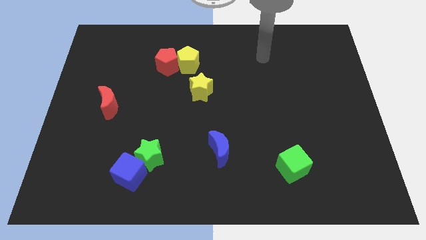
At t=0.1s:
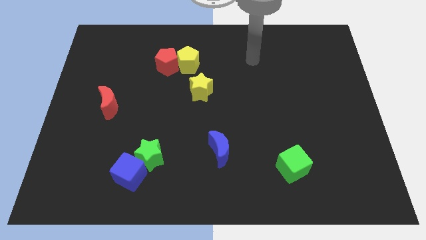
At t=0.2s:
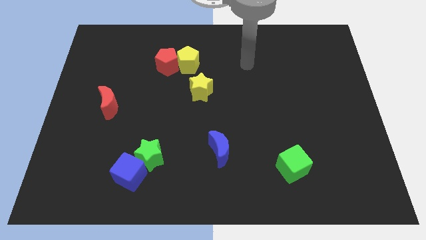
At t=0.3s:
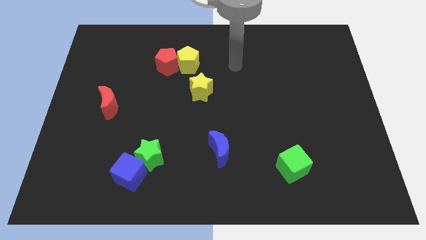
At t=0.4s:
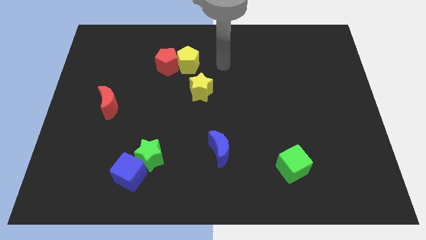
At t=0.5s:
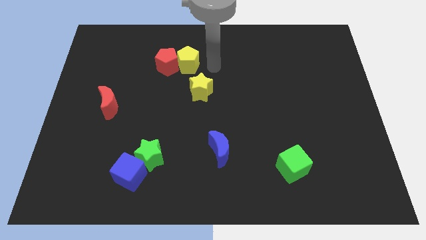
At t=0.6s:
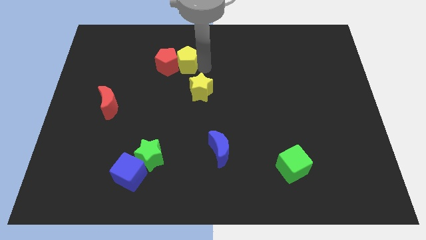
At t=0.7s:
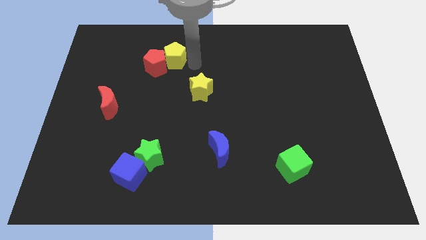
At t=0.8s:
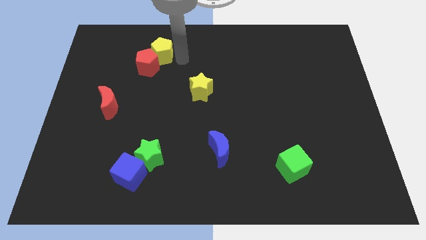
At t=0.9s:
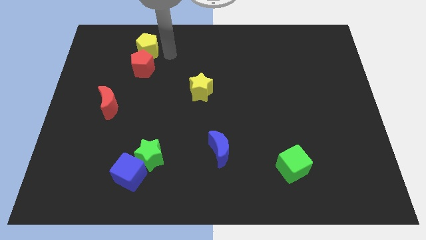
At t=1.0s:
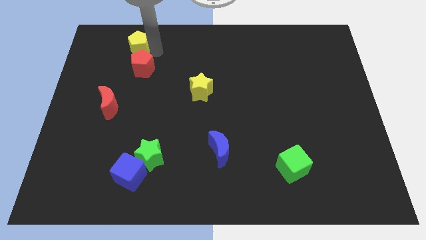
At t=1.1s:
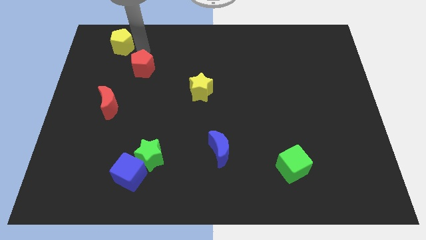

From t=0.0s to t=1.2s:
separate the red pentagon from the yellow pentagon

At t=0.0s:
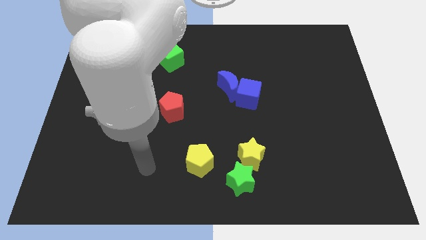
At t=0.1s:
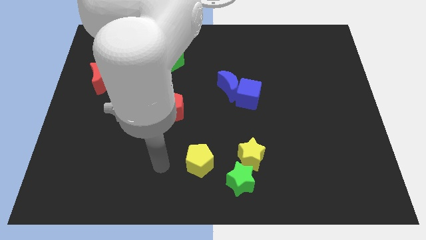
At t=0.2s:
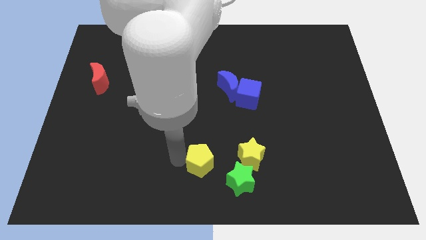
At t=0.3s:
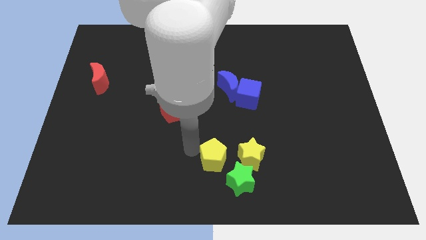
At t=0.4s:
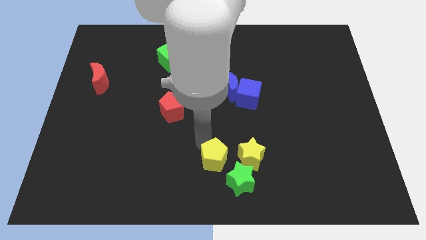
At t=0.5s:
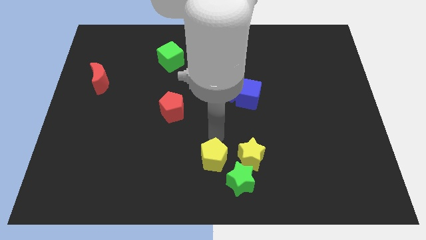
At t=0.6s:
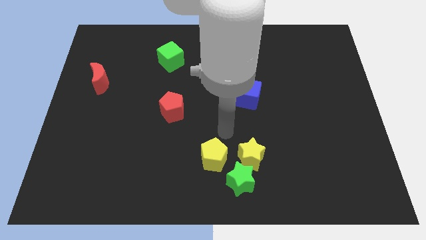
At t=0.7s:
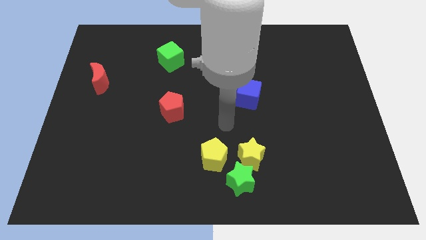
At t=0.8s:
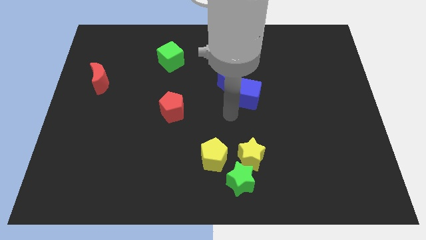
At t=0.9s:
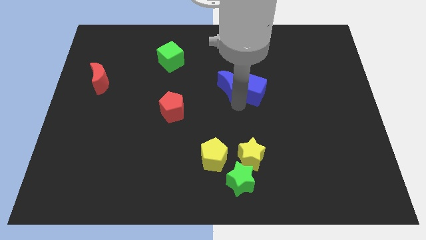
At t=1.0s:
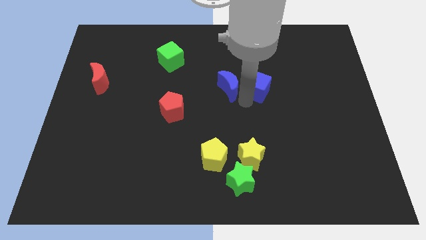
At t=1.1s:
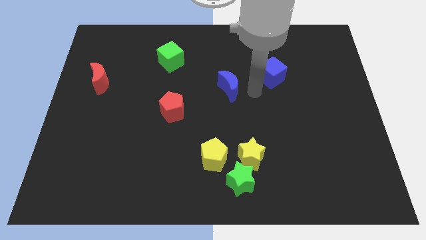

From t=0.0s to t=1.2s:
move the blue moon away from the blue cube

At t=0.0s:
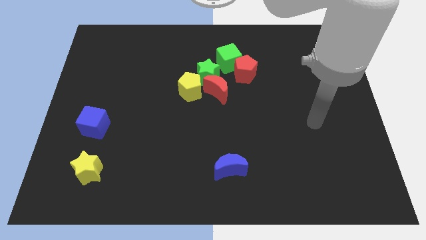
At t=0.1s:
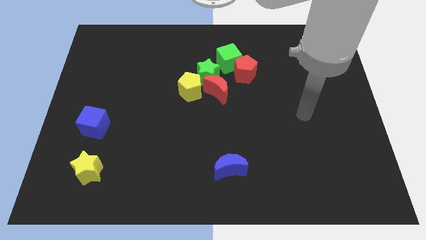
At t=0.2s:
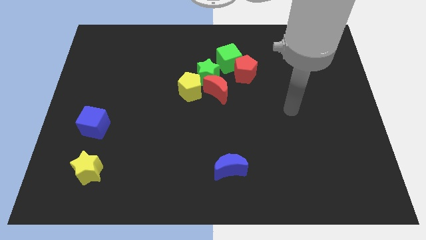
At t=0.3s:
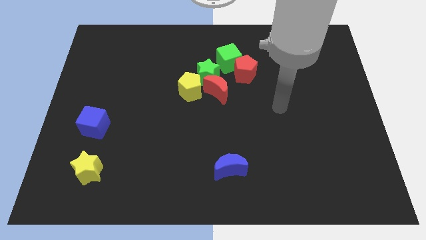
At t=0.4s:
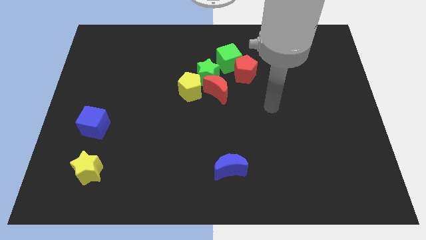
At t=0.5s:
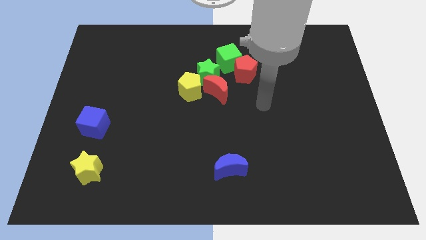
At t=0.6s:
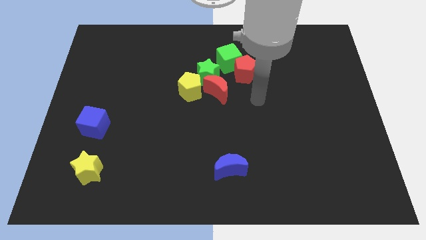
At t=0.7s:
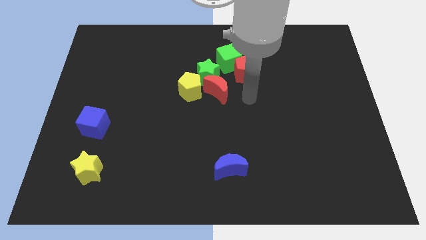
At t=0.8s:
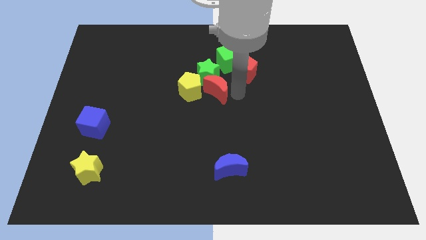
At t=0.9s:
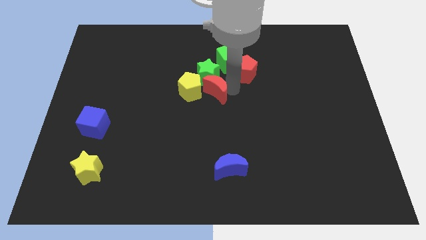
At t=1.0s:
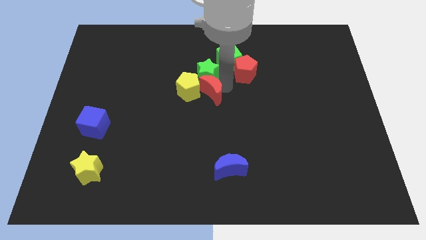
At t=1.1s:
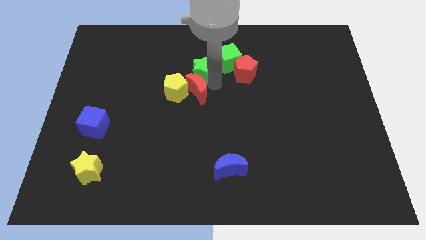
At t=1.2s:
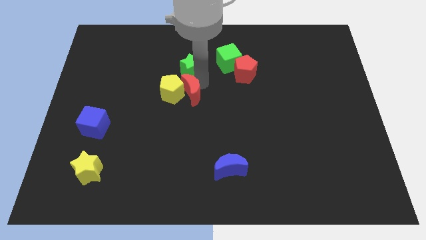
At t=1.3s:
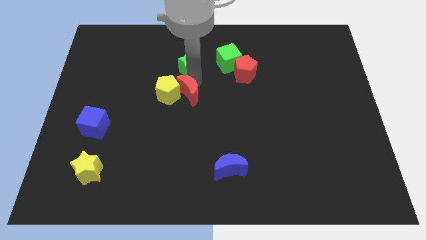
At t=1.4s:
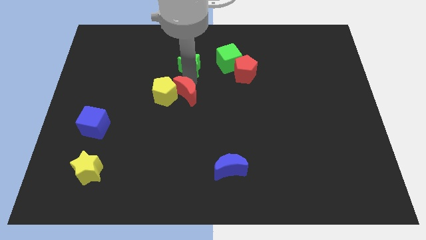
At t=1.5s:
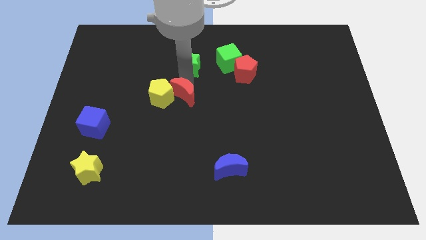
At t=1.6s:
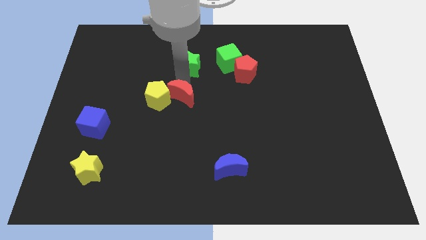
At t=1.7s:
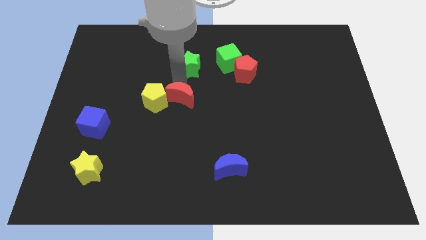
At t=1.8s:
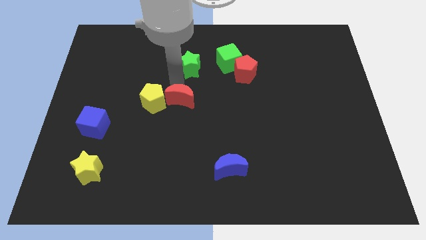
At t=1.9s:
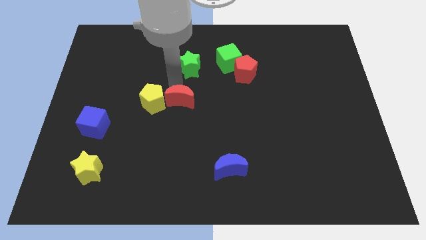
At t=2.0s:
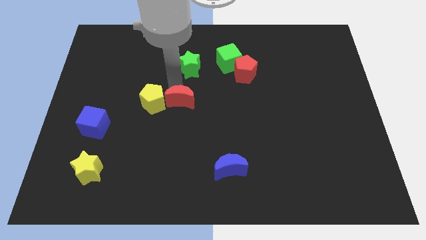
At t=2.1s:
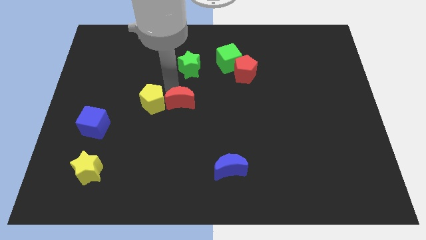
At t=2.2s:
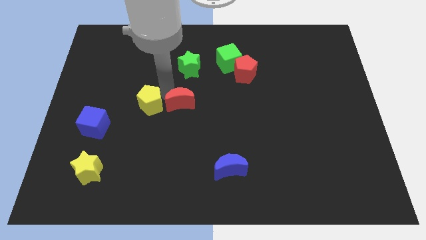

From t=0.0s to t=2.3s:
separate the yellow pentagon from the green star and red moon

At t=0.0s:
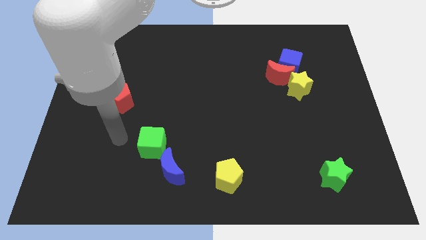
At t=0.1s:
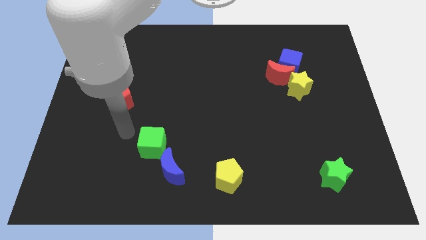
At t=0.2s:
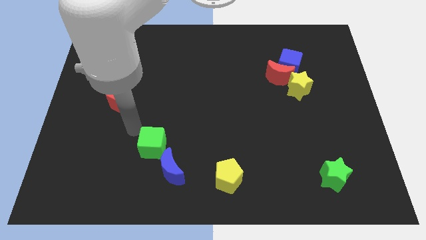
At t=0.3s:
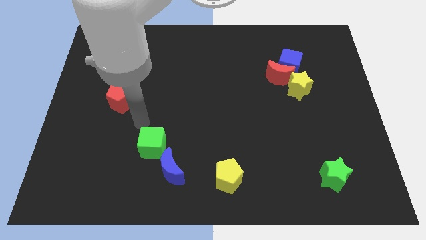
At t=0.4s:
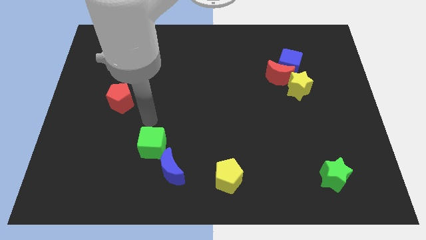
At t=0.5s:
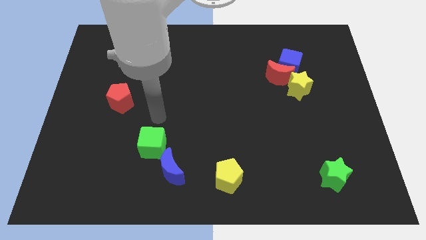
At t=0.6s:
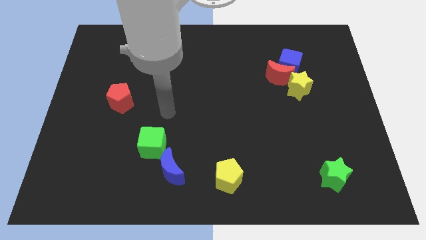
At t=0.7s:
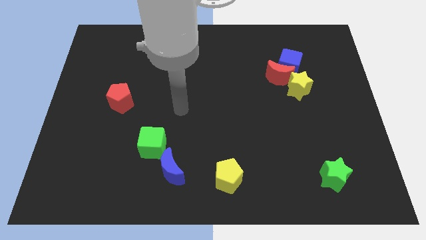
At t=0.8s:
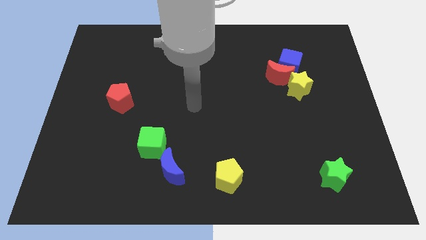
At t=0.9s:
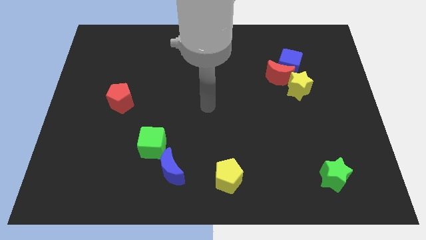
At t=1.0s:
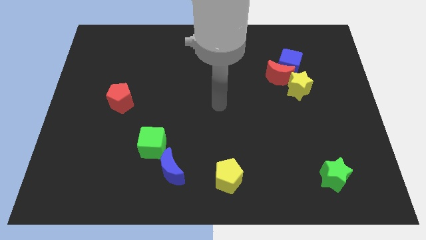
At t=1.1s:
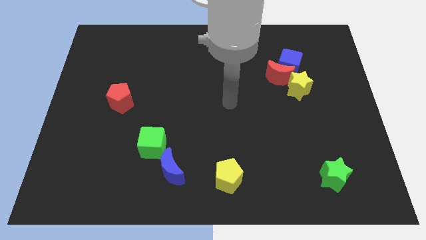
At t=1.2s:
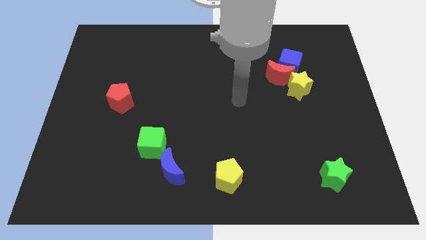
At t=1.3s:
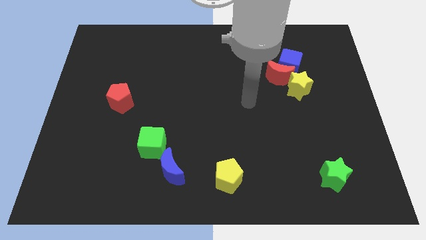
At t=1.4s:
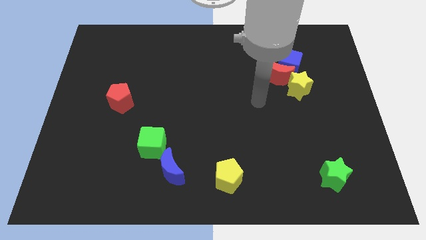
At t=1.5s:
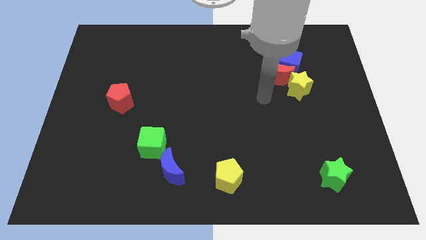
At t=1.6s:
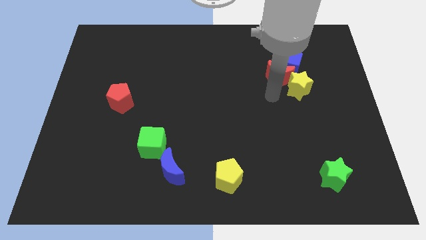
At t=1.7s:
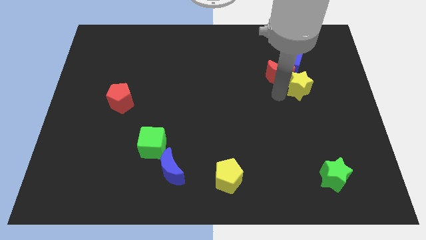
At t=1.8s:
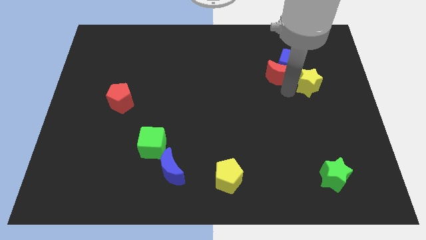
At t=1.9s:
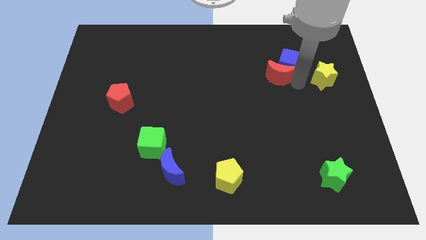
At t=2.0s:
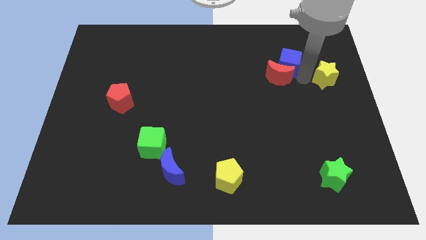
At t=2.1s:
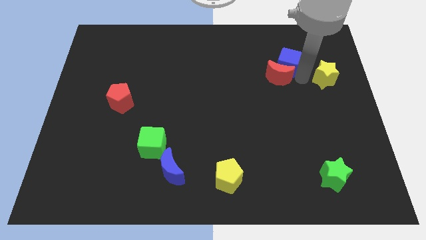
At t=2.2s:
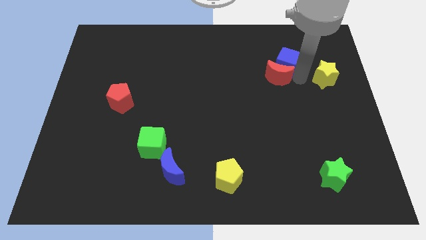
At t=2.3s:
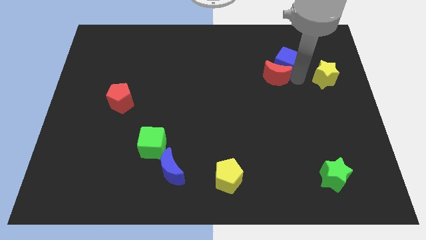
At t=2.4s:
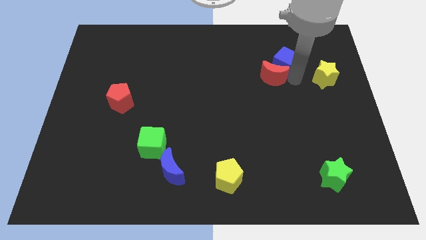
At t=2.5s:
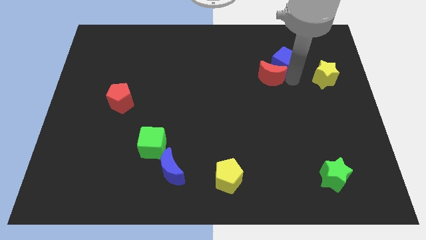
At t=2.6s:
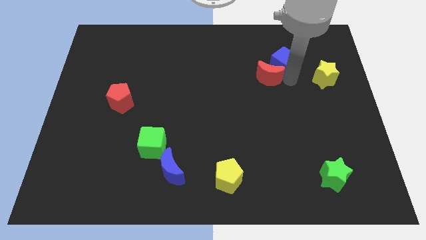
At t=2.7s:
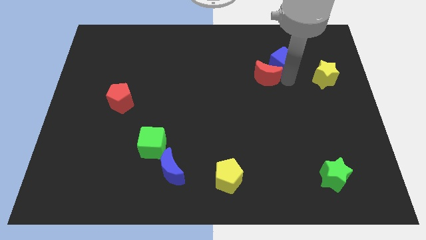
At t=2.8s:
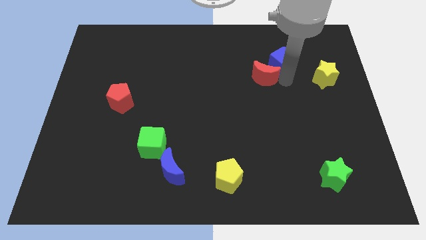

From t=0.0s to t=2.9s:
move the red moon away from the blue cube and yellow star

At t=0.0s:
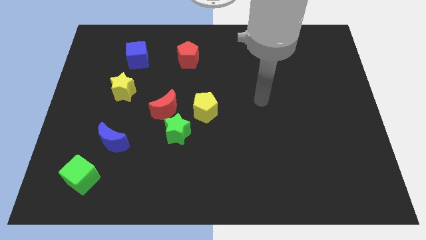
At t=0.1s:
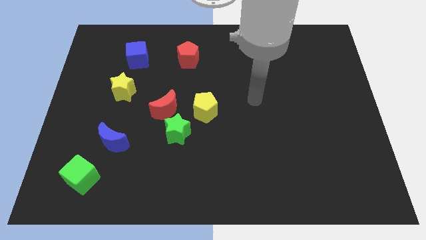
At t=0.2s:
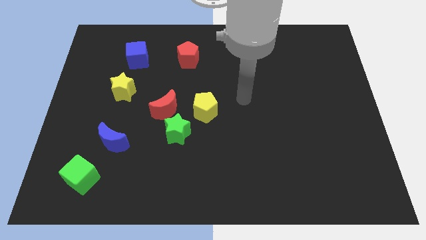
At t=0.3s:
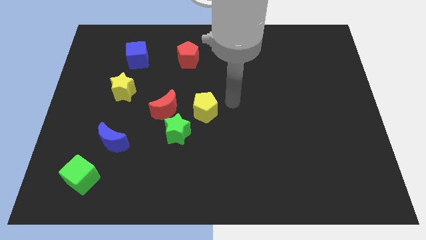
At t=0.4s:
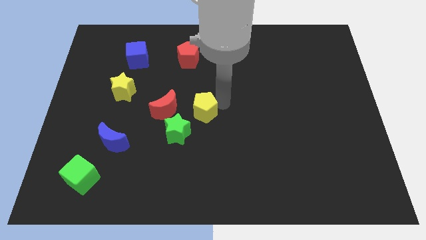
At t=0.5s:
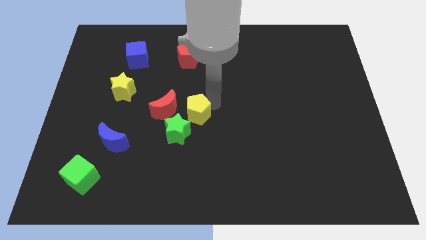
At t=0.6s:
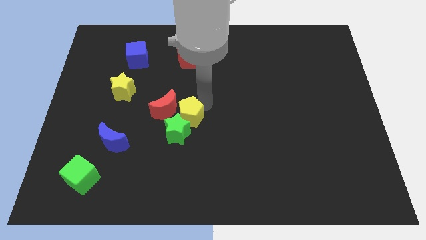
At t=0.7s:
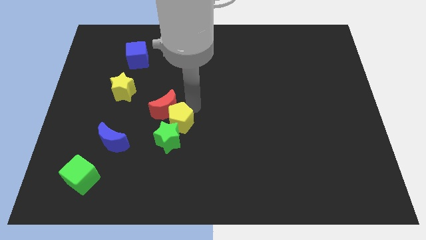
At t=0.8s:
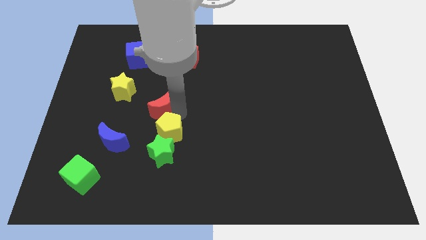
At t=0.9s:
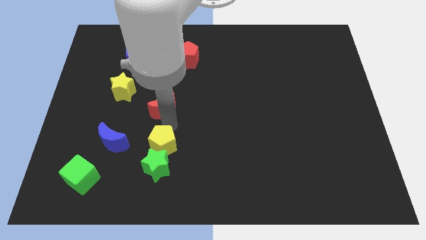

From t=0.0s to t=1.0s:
move the green star away from the red moon and yellow pentagon

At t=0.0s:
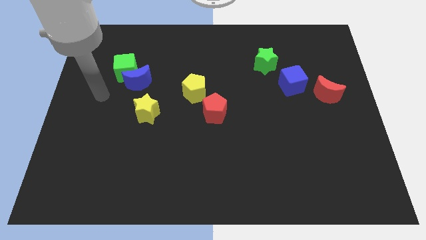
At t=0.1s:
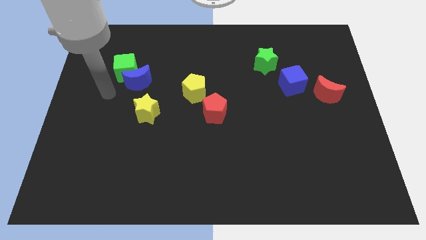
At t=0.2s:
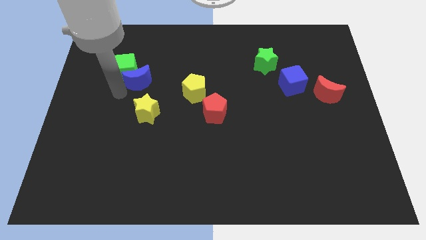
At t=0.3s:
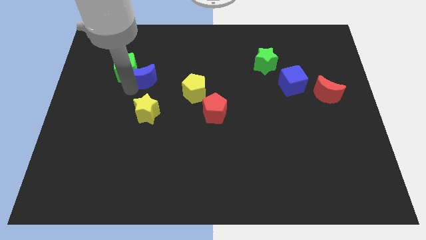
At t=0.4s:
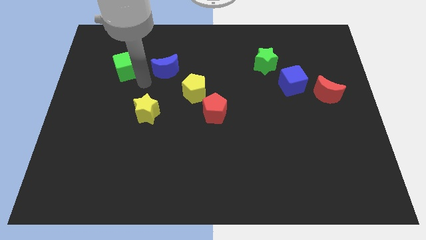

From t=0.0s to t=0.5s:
move the green cube away from the blue moon

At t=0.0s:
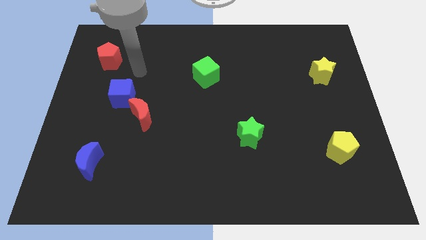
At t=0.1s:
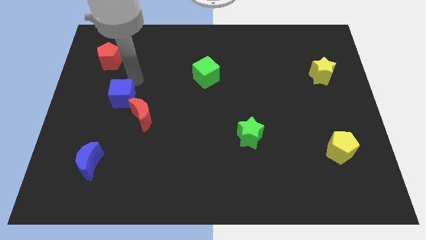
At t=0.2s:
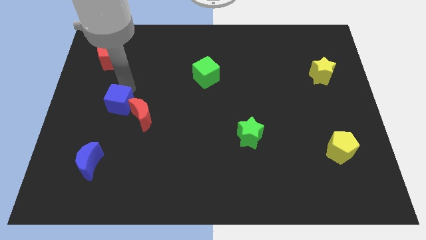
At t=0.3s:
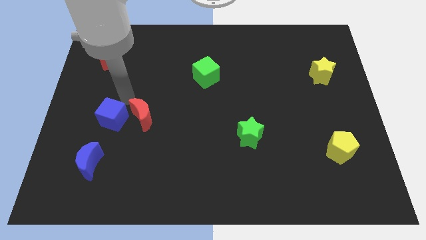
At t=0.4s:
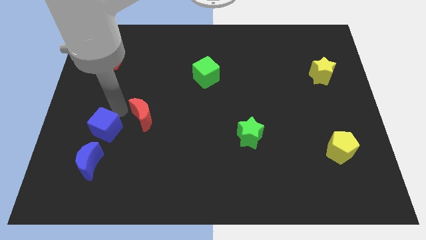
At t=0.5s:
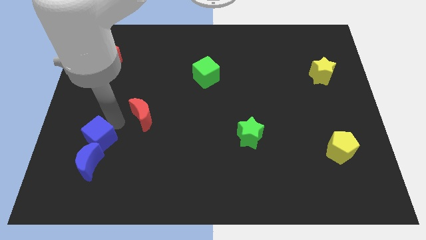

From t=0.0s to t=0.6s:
pull the red moon apart from the blue cube
